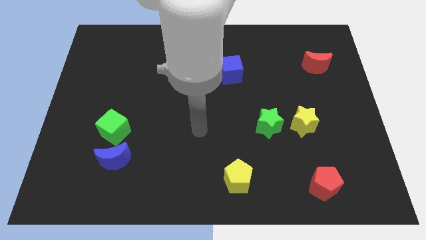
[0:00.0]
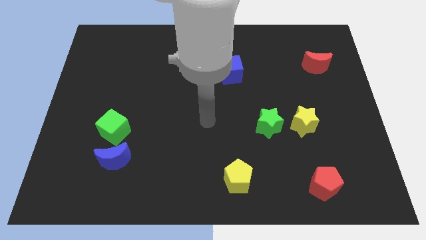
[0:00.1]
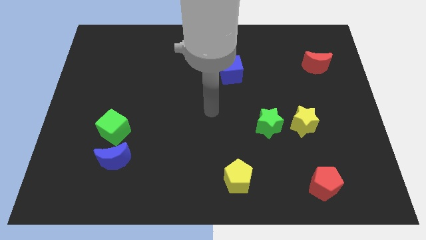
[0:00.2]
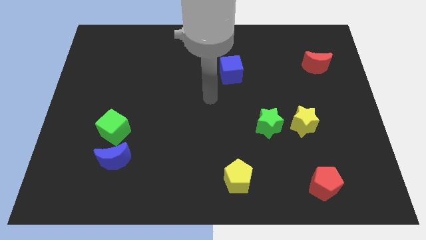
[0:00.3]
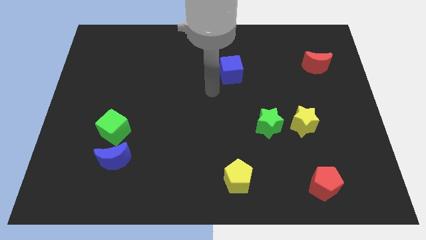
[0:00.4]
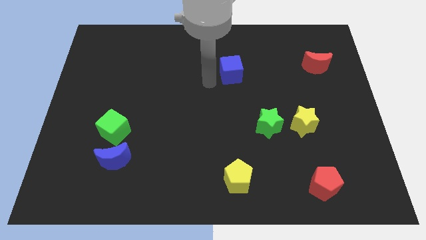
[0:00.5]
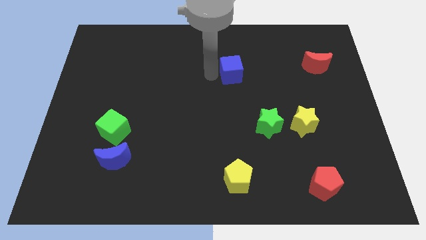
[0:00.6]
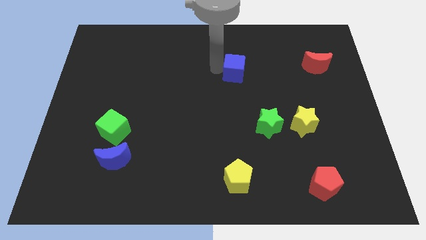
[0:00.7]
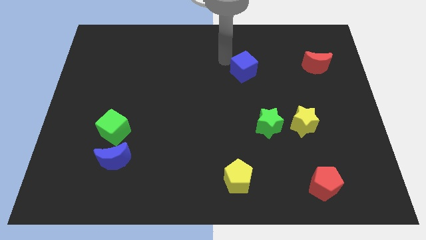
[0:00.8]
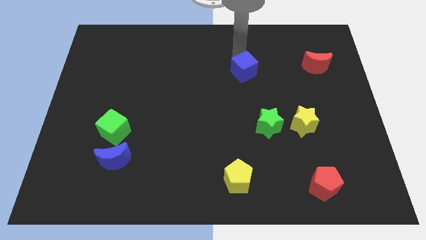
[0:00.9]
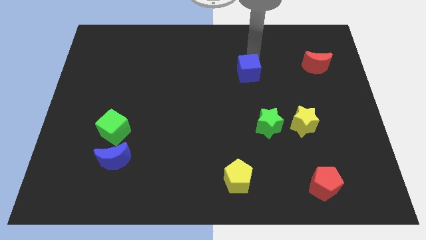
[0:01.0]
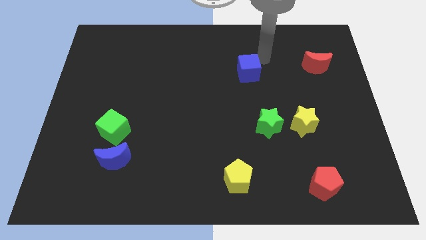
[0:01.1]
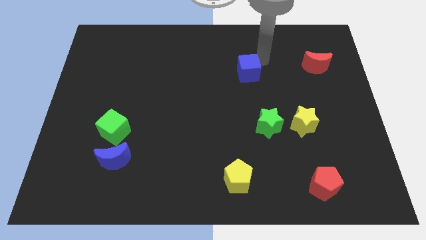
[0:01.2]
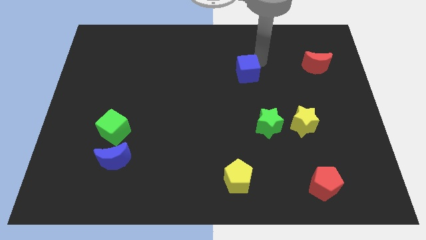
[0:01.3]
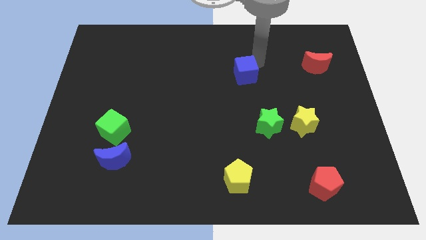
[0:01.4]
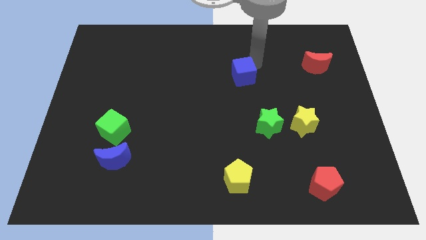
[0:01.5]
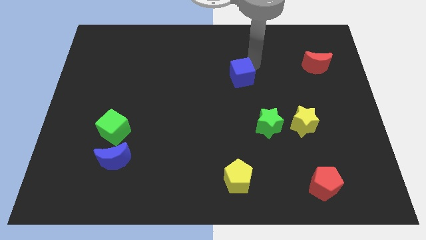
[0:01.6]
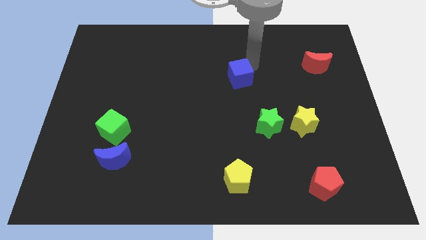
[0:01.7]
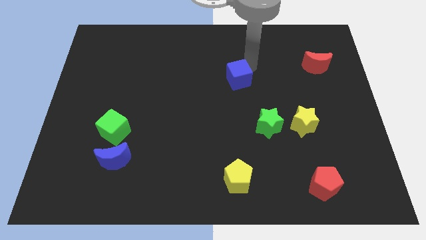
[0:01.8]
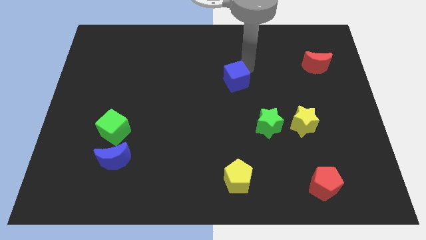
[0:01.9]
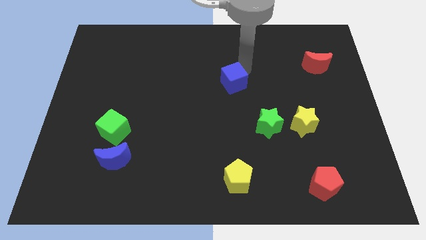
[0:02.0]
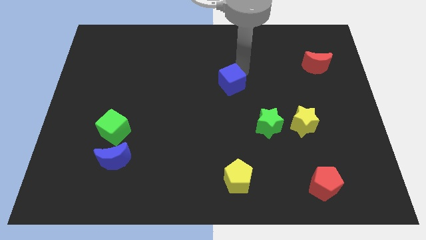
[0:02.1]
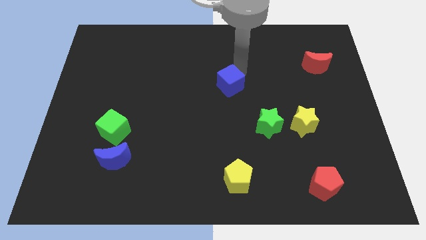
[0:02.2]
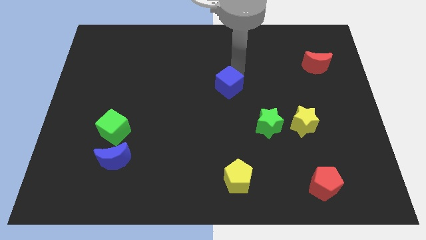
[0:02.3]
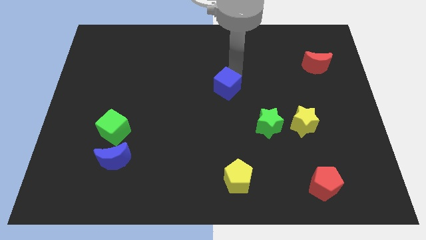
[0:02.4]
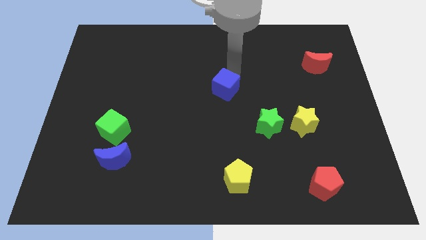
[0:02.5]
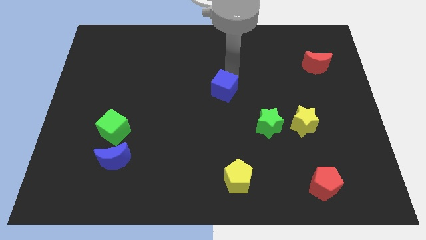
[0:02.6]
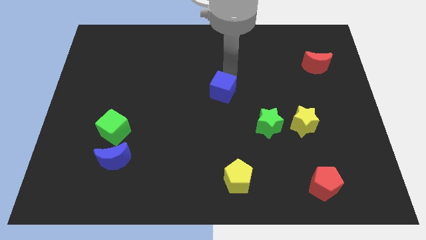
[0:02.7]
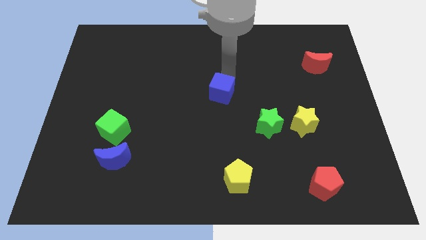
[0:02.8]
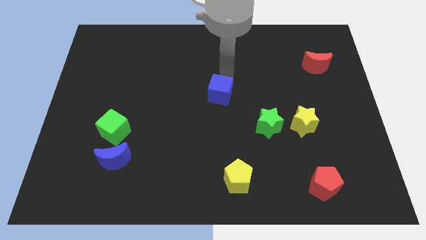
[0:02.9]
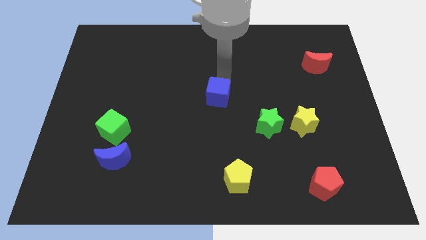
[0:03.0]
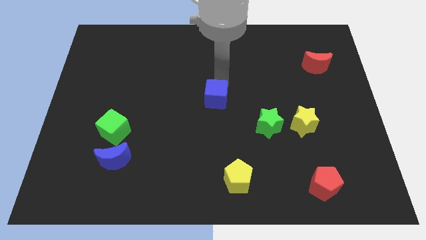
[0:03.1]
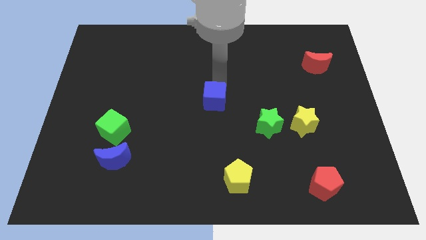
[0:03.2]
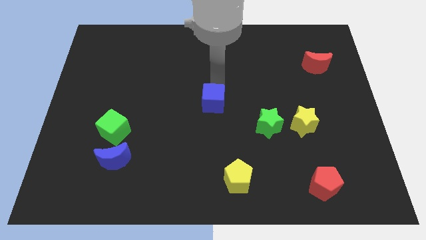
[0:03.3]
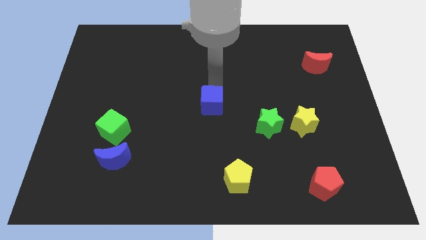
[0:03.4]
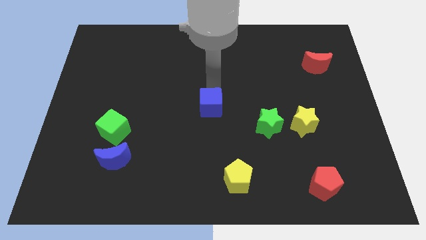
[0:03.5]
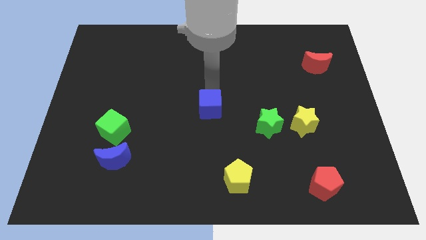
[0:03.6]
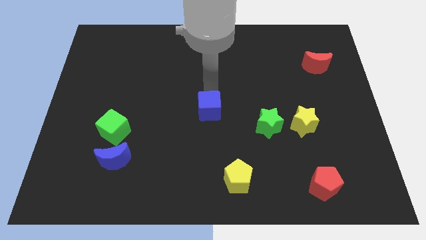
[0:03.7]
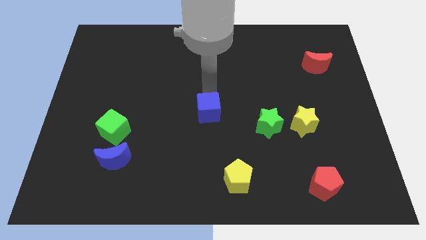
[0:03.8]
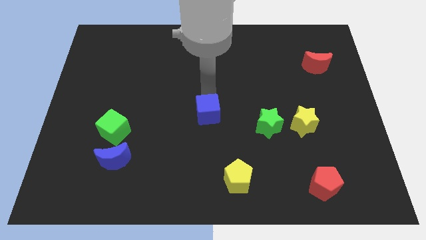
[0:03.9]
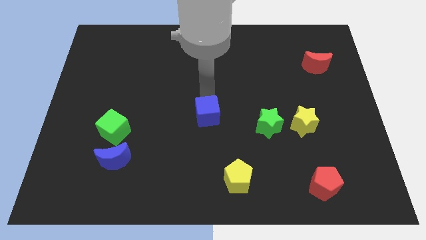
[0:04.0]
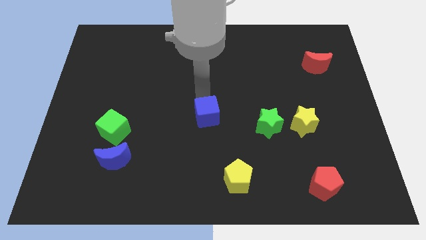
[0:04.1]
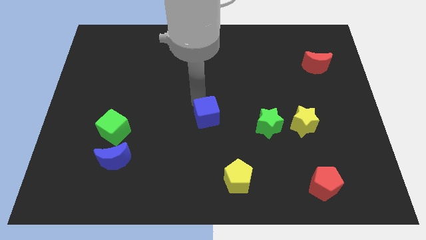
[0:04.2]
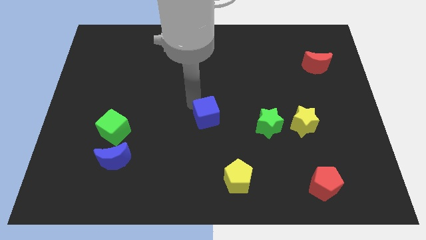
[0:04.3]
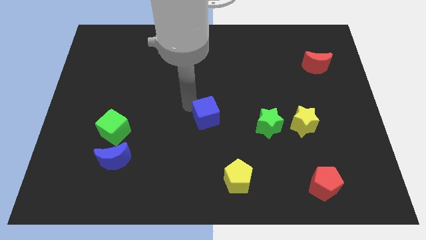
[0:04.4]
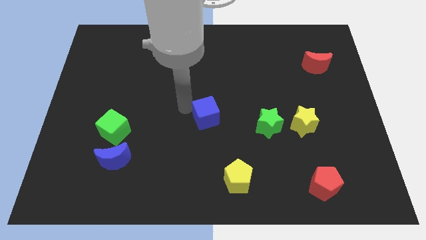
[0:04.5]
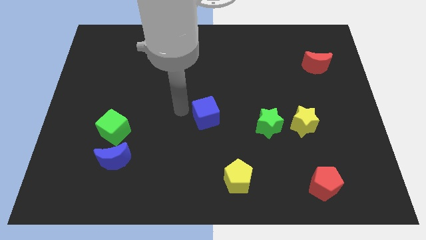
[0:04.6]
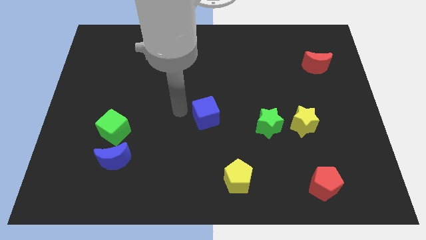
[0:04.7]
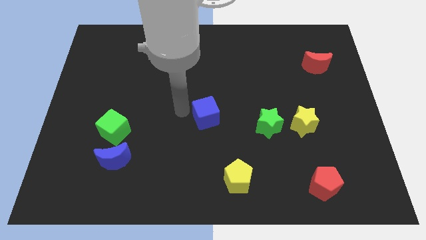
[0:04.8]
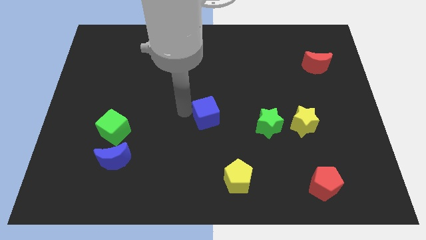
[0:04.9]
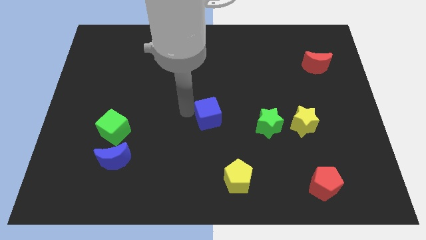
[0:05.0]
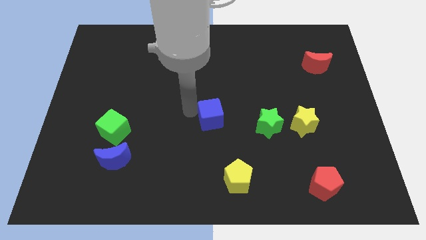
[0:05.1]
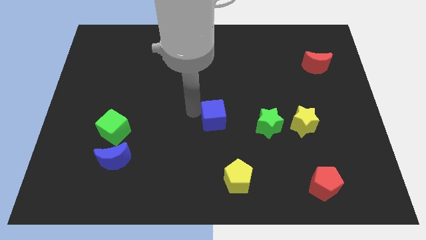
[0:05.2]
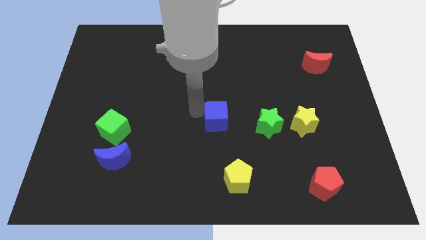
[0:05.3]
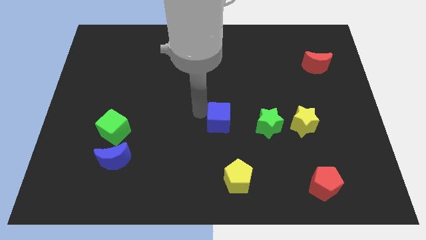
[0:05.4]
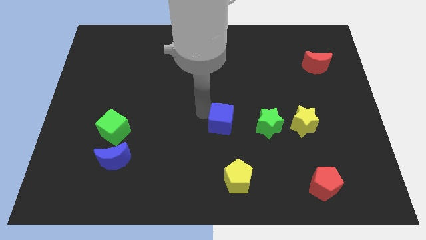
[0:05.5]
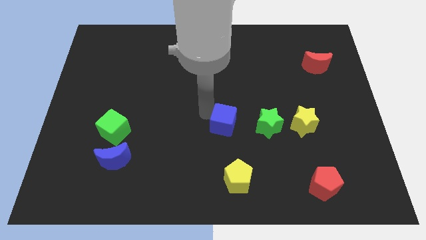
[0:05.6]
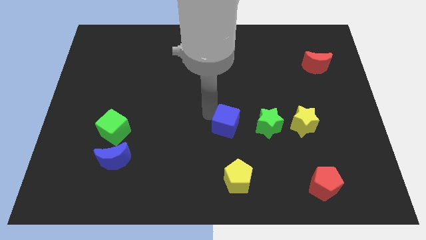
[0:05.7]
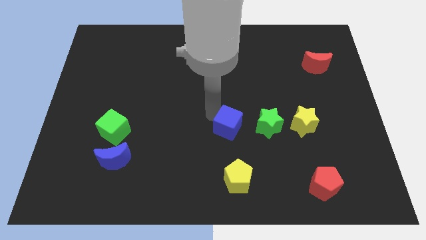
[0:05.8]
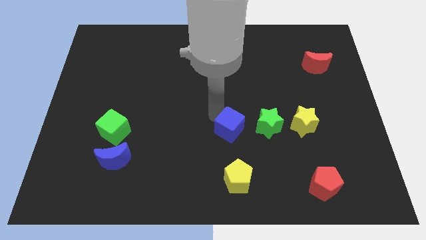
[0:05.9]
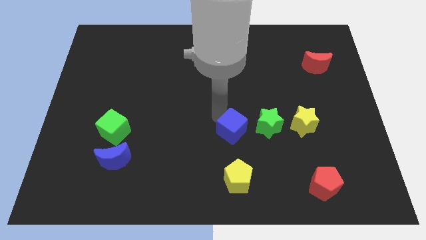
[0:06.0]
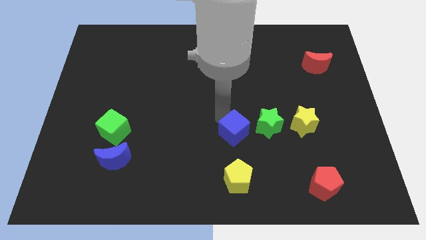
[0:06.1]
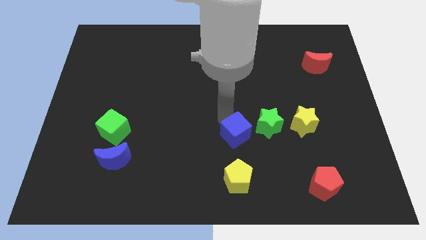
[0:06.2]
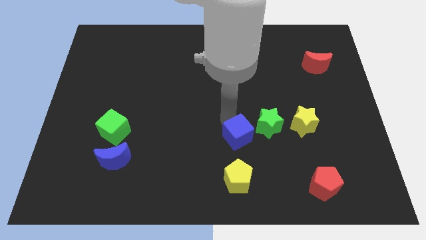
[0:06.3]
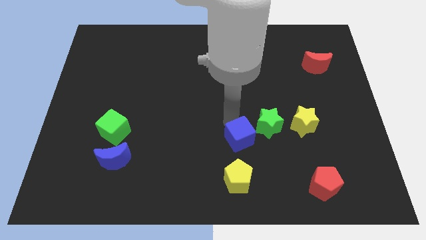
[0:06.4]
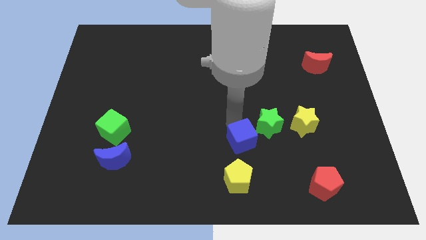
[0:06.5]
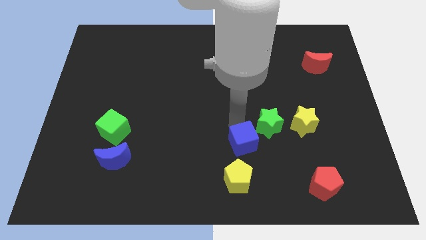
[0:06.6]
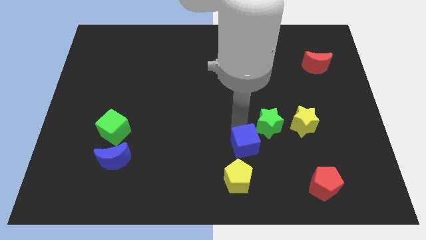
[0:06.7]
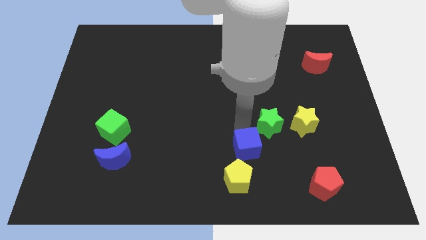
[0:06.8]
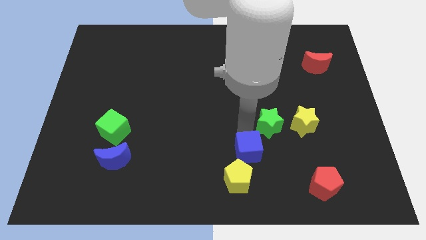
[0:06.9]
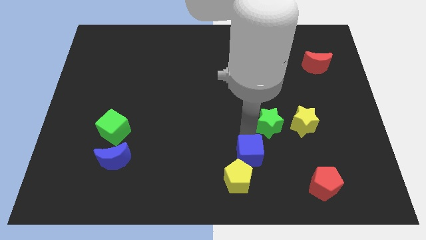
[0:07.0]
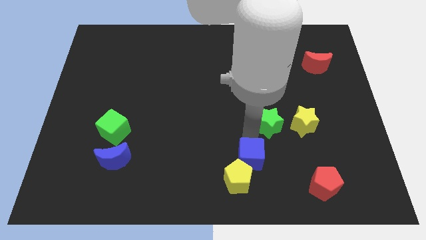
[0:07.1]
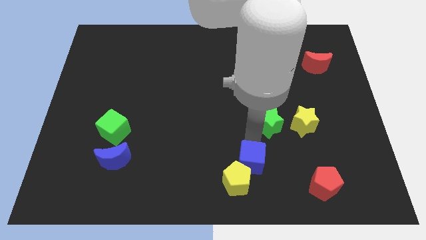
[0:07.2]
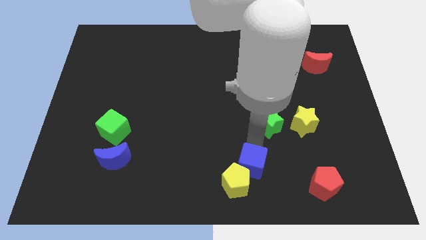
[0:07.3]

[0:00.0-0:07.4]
push the blue cube to the bottom
